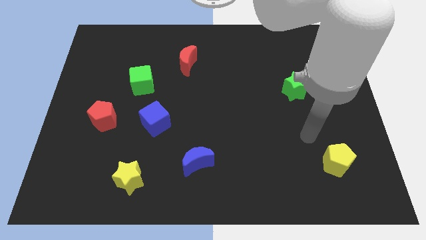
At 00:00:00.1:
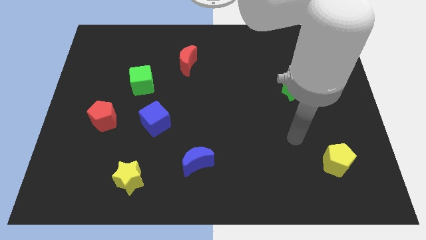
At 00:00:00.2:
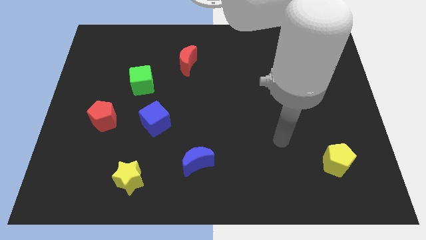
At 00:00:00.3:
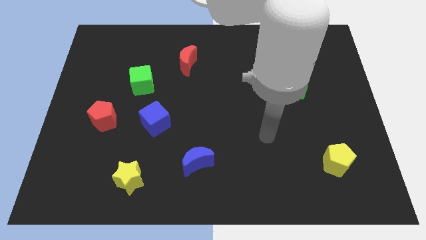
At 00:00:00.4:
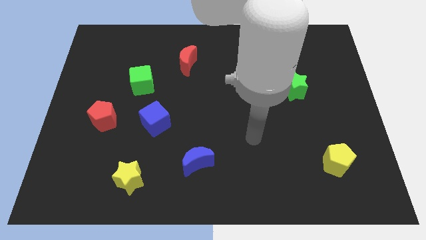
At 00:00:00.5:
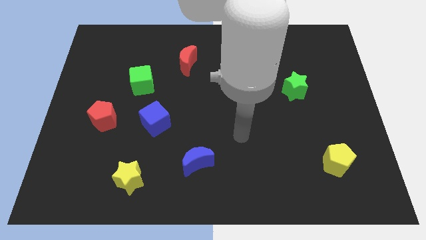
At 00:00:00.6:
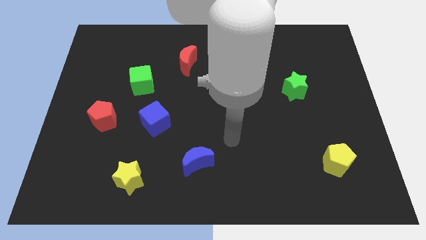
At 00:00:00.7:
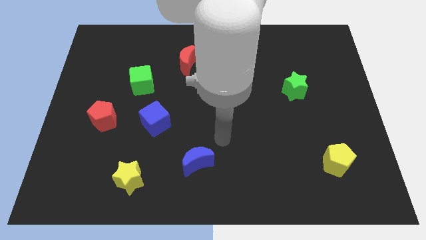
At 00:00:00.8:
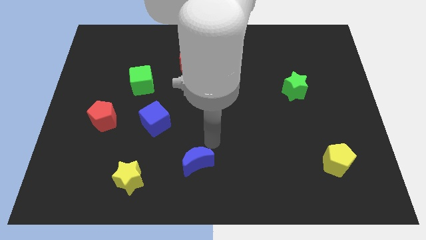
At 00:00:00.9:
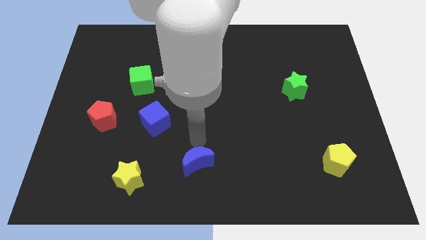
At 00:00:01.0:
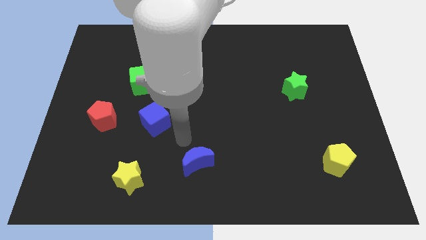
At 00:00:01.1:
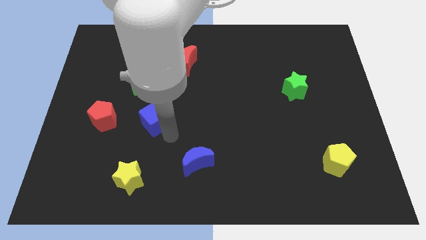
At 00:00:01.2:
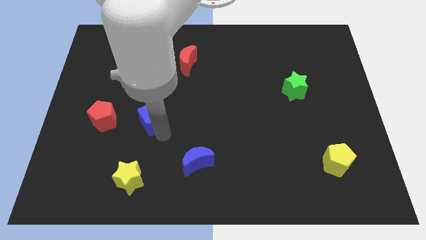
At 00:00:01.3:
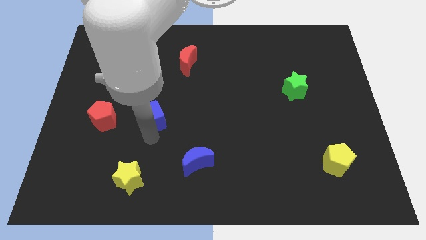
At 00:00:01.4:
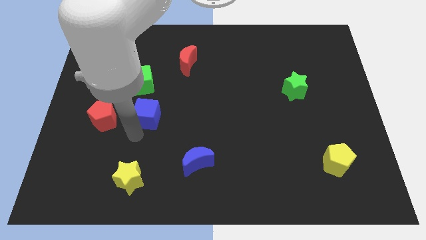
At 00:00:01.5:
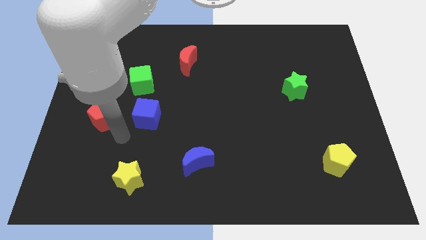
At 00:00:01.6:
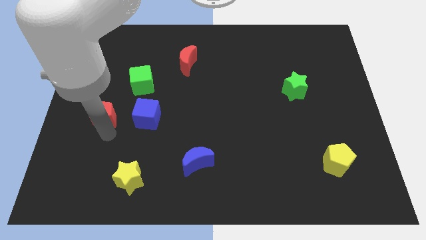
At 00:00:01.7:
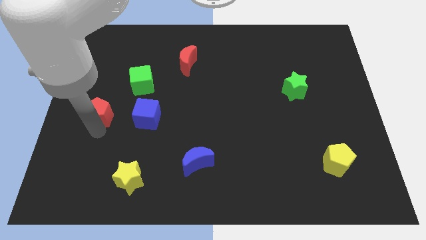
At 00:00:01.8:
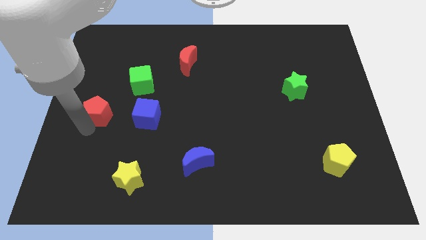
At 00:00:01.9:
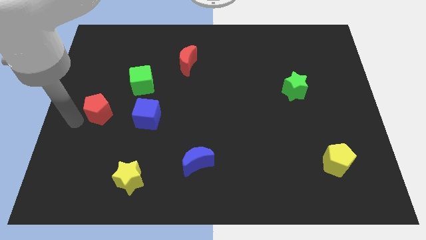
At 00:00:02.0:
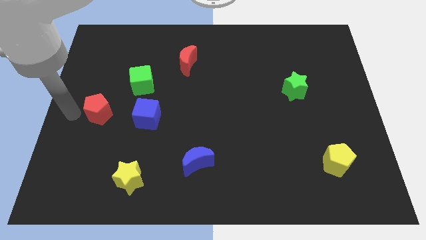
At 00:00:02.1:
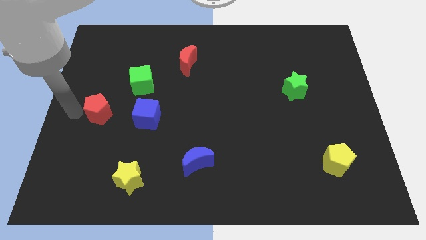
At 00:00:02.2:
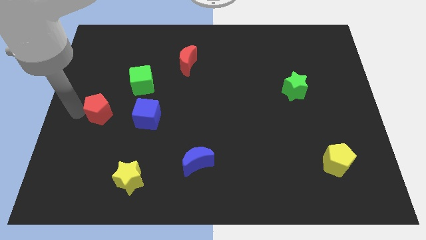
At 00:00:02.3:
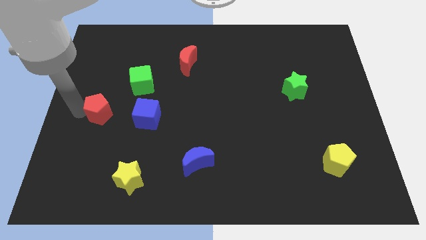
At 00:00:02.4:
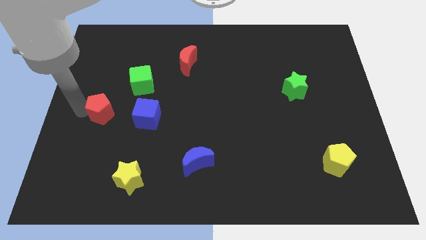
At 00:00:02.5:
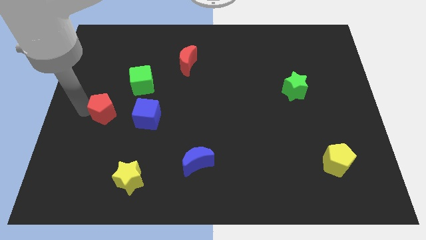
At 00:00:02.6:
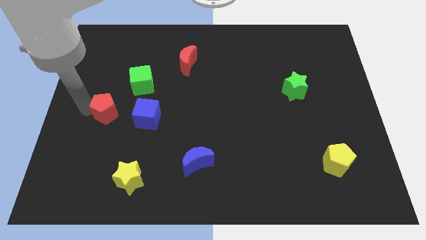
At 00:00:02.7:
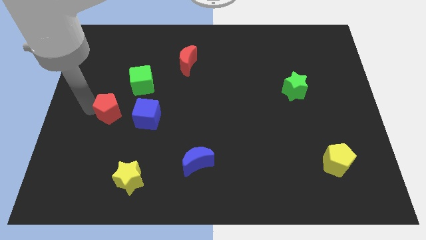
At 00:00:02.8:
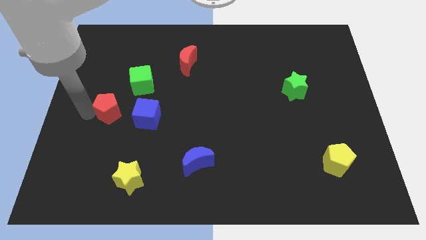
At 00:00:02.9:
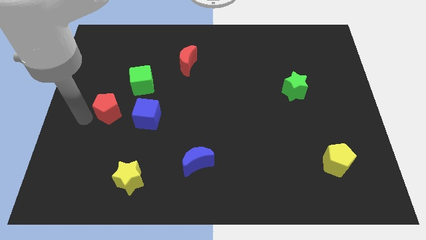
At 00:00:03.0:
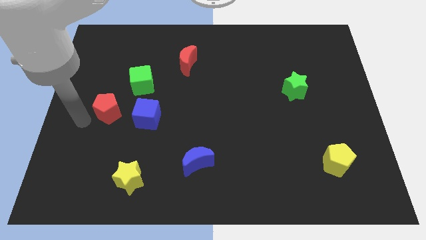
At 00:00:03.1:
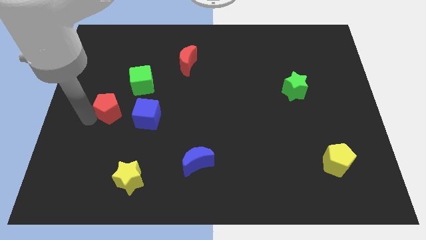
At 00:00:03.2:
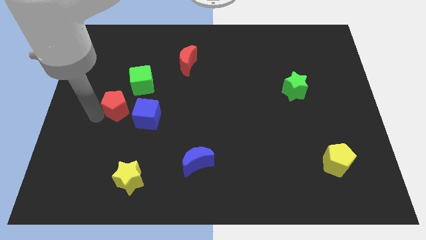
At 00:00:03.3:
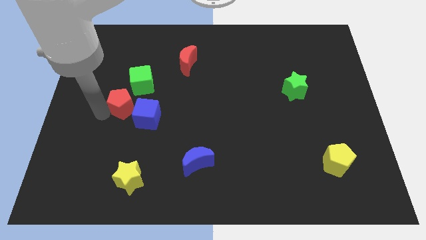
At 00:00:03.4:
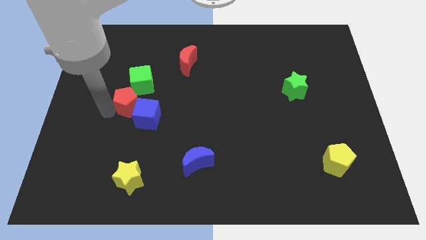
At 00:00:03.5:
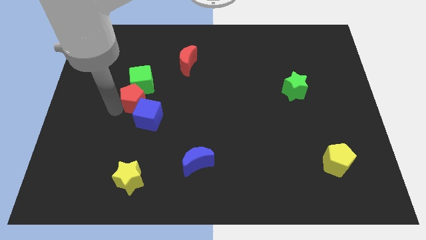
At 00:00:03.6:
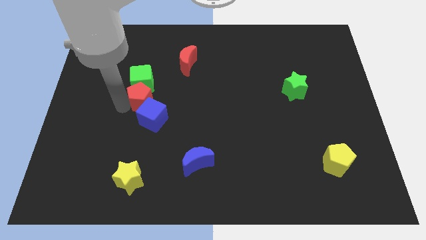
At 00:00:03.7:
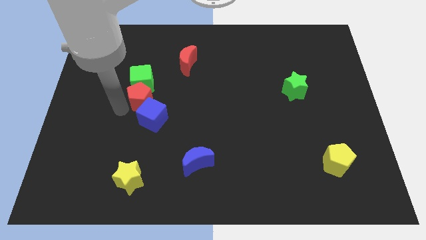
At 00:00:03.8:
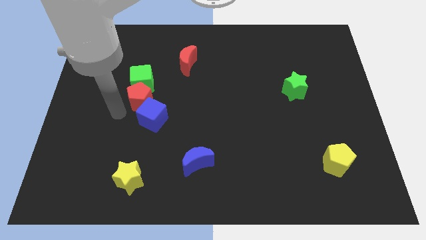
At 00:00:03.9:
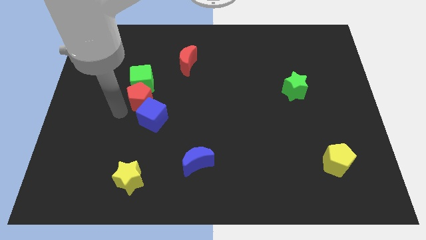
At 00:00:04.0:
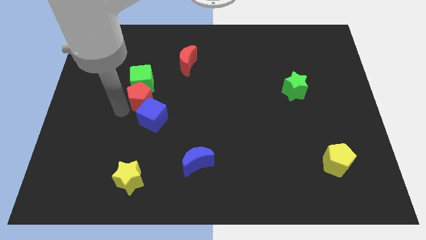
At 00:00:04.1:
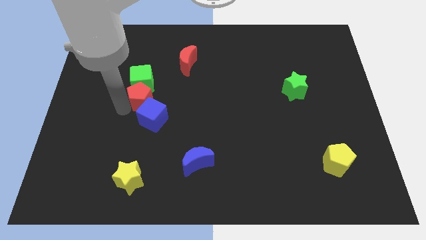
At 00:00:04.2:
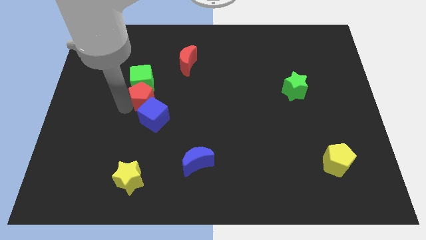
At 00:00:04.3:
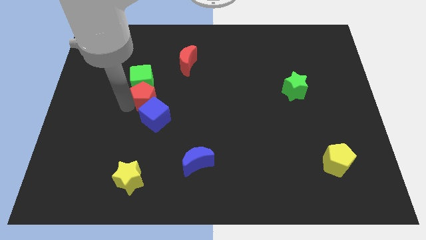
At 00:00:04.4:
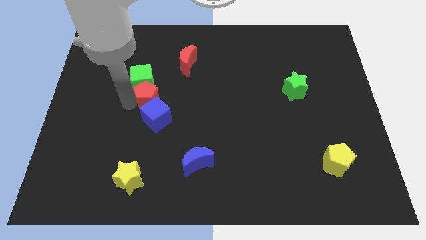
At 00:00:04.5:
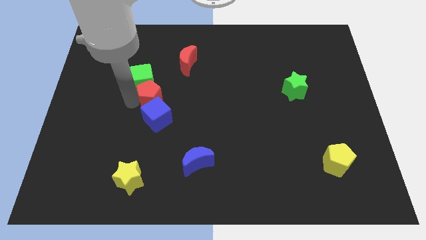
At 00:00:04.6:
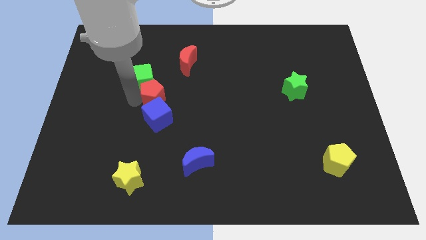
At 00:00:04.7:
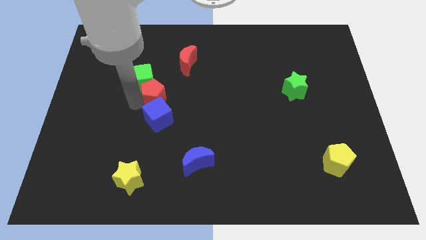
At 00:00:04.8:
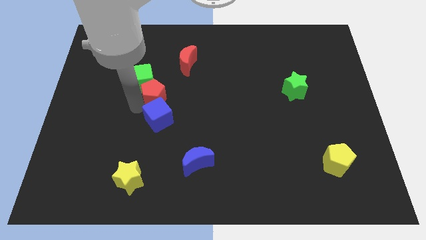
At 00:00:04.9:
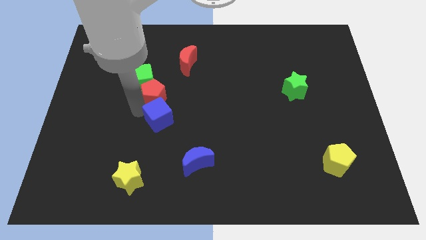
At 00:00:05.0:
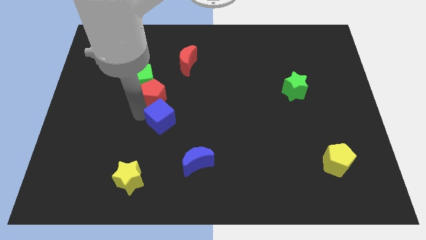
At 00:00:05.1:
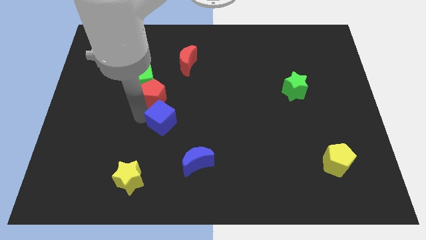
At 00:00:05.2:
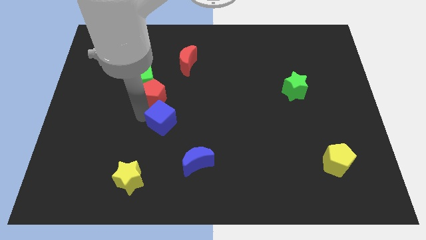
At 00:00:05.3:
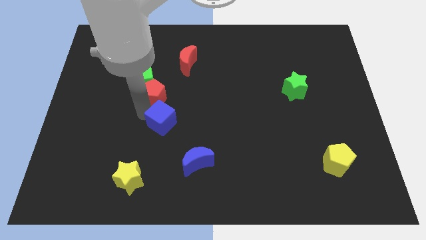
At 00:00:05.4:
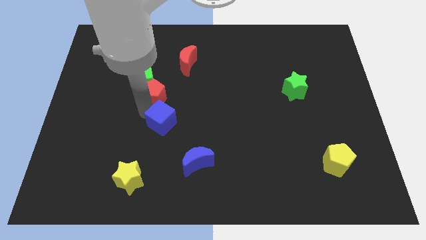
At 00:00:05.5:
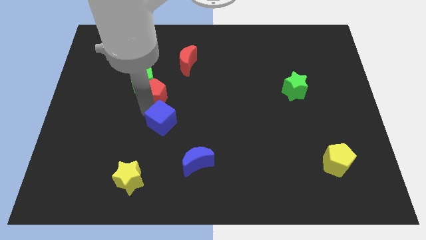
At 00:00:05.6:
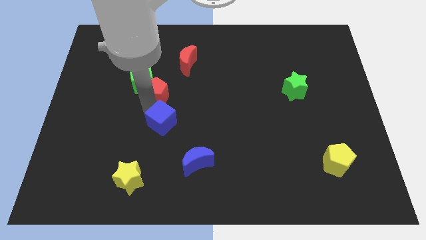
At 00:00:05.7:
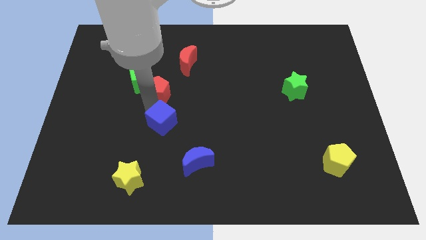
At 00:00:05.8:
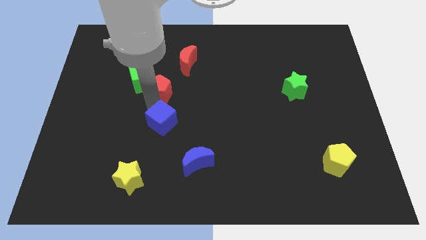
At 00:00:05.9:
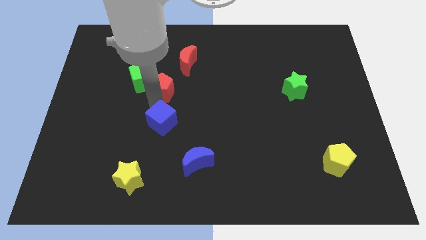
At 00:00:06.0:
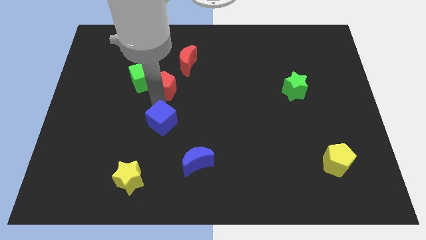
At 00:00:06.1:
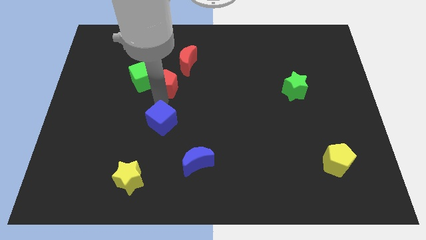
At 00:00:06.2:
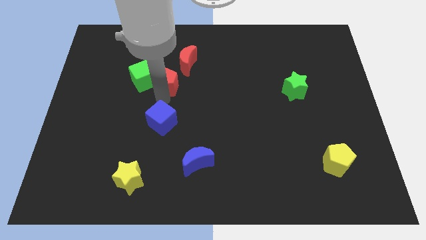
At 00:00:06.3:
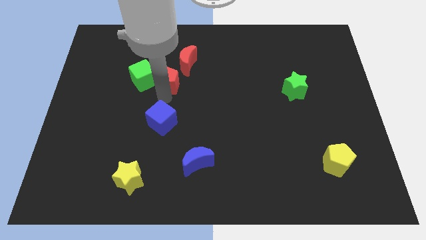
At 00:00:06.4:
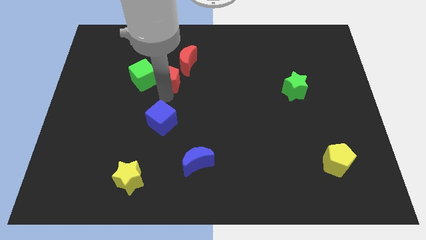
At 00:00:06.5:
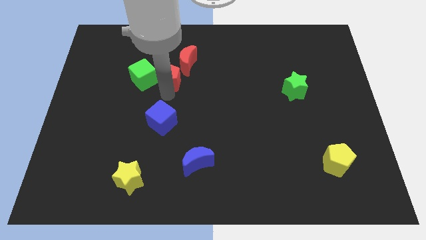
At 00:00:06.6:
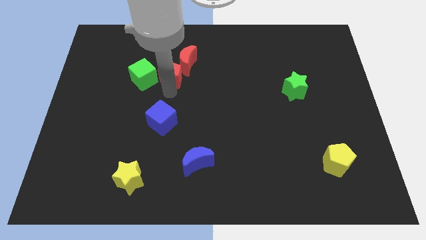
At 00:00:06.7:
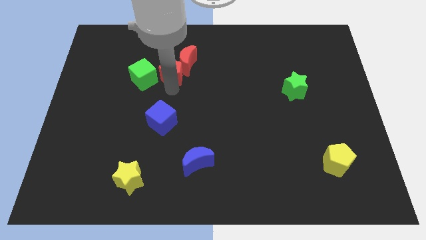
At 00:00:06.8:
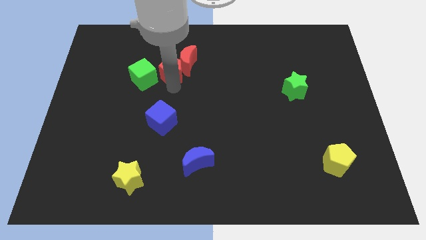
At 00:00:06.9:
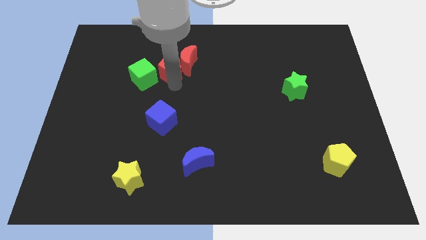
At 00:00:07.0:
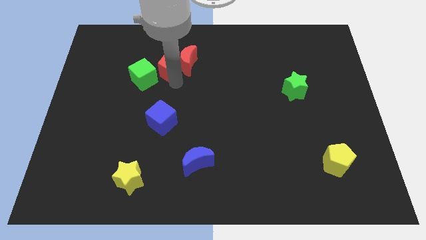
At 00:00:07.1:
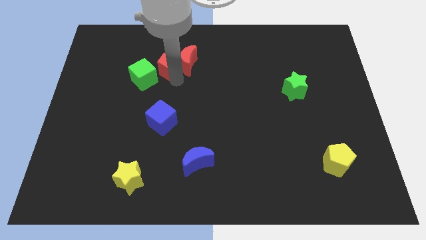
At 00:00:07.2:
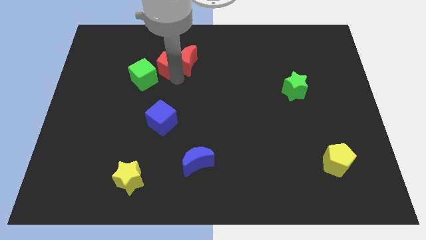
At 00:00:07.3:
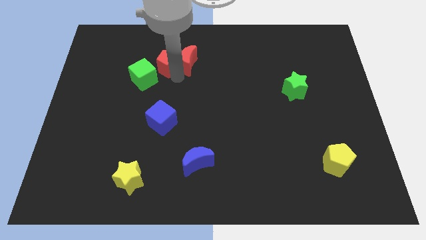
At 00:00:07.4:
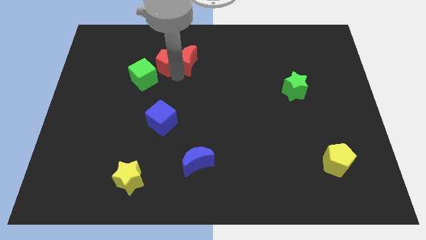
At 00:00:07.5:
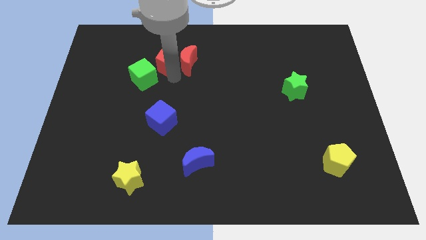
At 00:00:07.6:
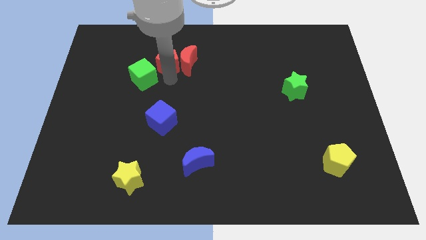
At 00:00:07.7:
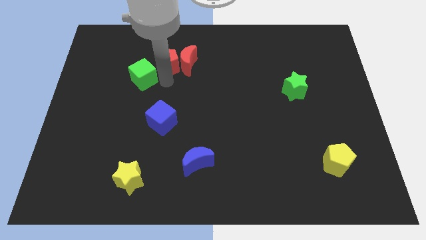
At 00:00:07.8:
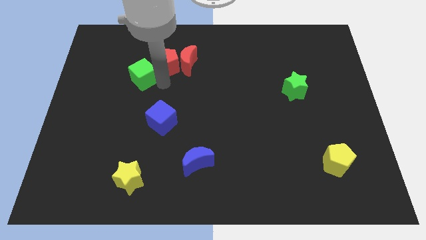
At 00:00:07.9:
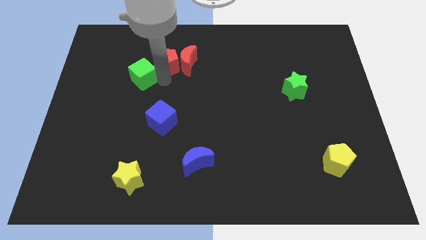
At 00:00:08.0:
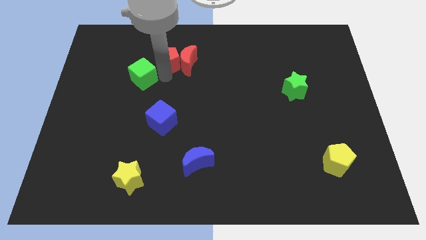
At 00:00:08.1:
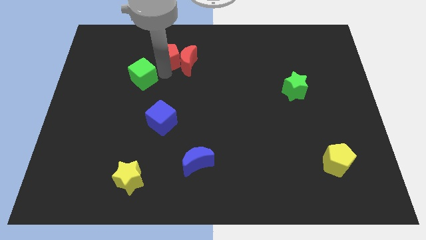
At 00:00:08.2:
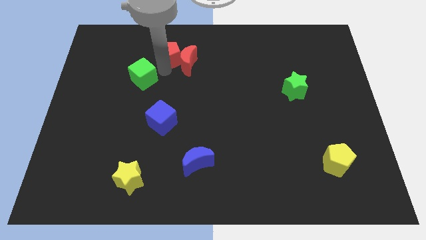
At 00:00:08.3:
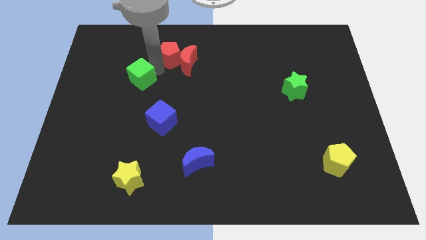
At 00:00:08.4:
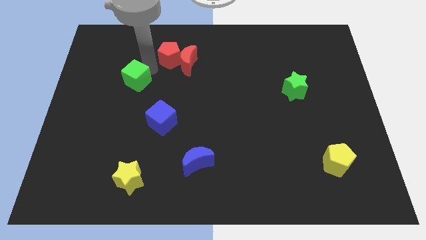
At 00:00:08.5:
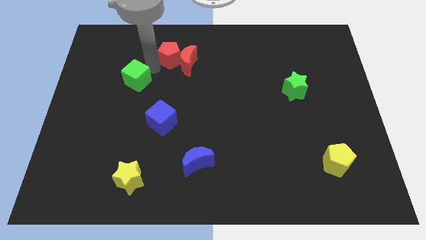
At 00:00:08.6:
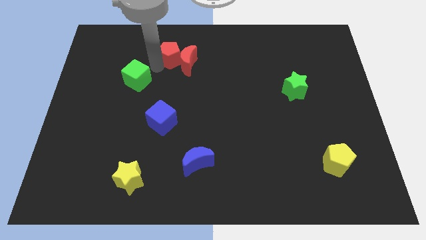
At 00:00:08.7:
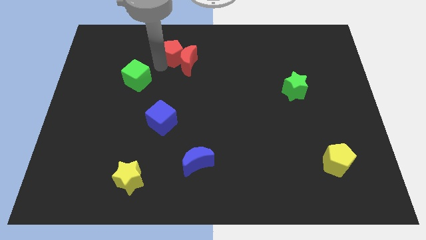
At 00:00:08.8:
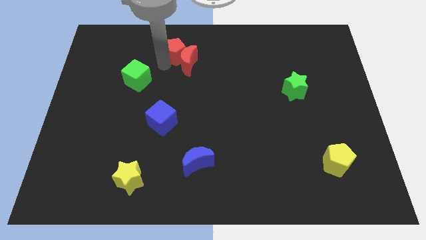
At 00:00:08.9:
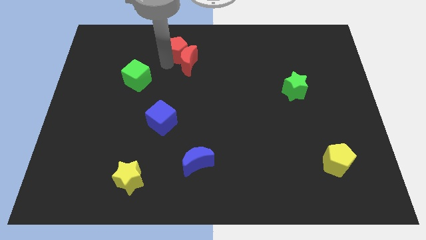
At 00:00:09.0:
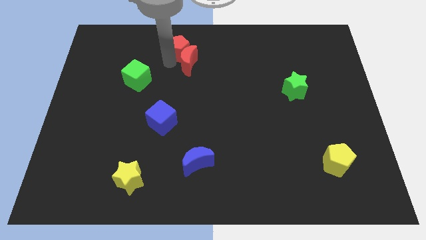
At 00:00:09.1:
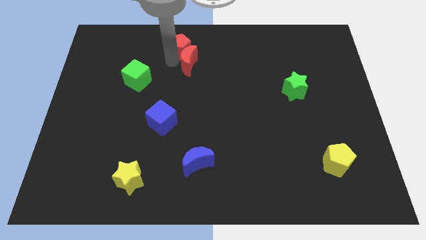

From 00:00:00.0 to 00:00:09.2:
move the red pentagon to the top
